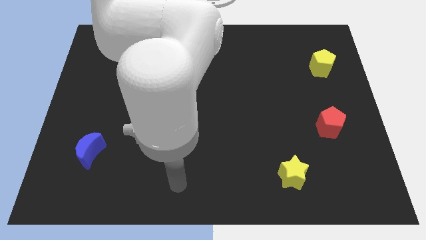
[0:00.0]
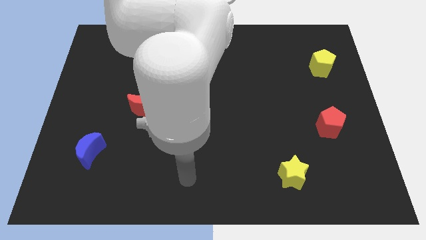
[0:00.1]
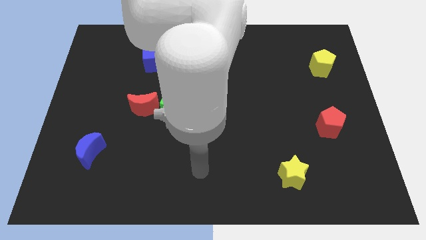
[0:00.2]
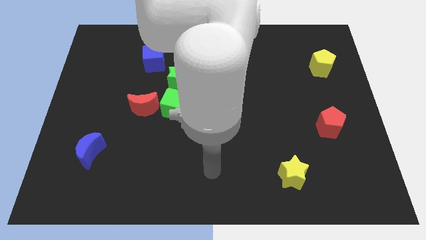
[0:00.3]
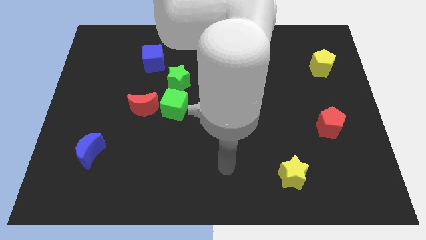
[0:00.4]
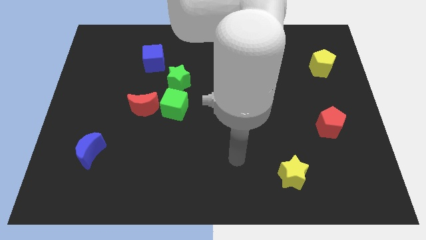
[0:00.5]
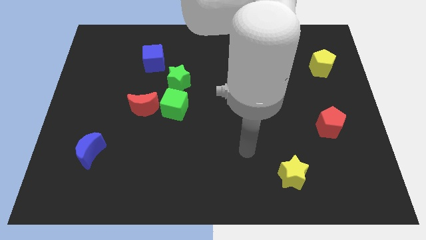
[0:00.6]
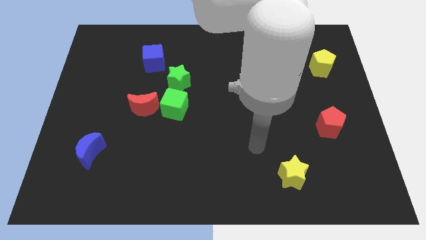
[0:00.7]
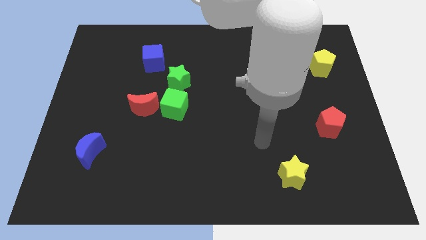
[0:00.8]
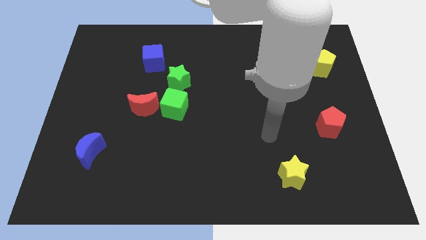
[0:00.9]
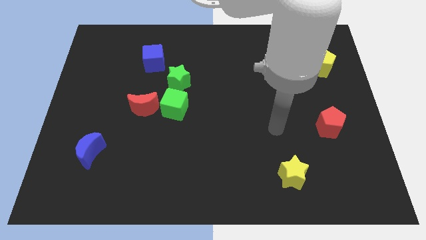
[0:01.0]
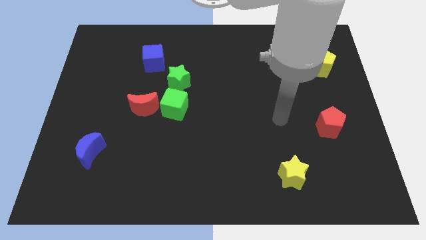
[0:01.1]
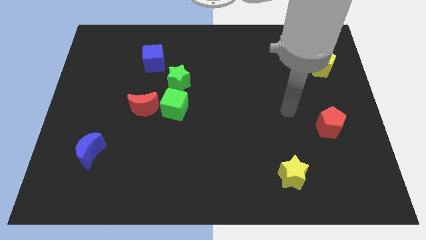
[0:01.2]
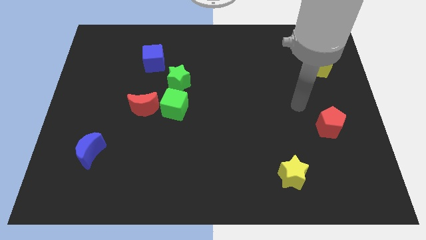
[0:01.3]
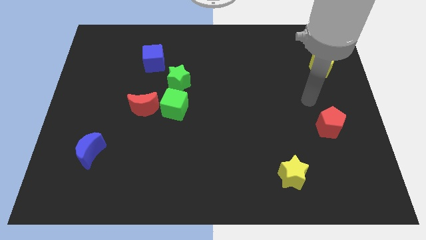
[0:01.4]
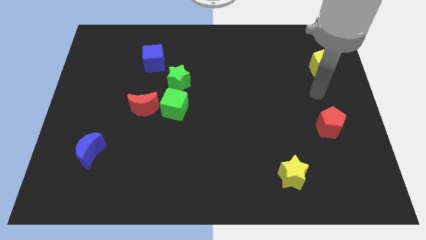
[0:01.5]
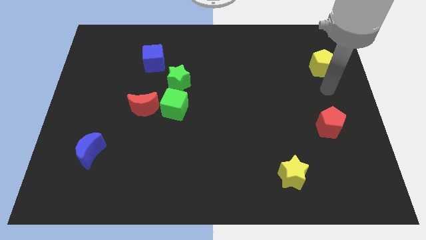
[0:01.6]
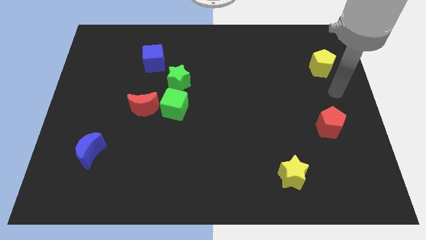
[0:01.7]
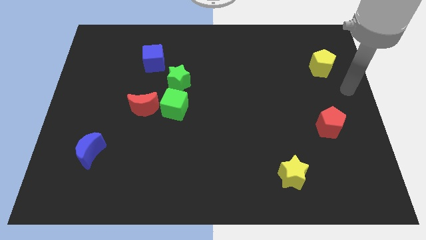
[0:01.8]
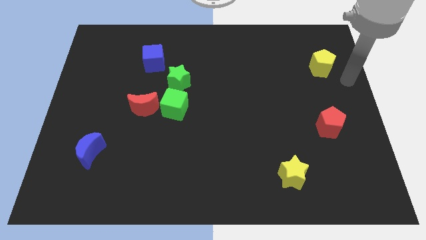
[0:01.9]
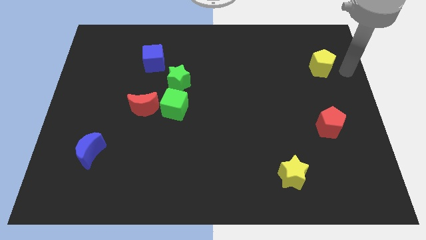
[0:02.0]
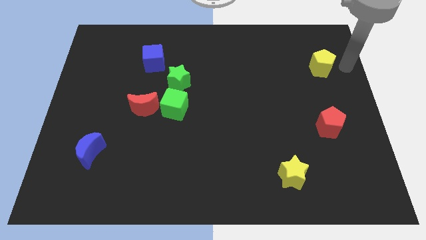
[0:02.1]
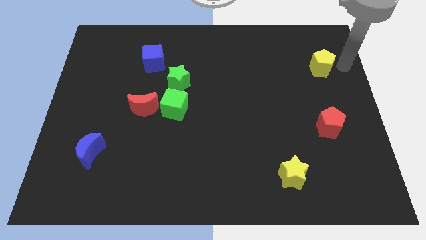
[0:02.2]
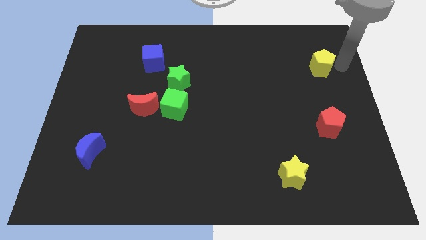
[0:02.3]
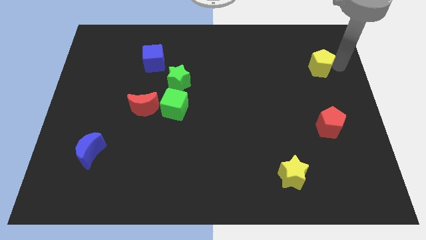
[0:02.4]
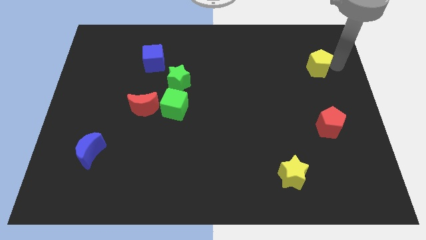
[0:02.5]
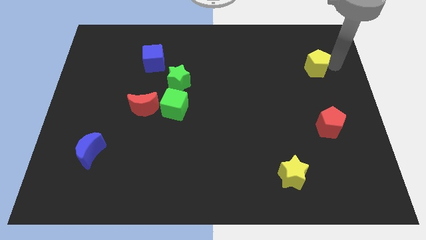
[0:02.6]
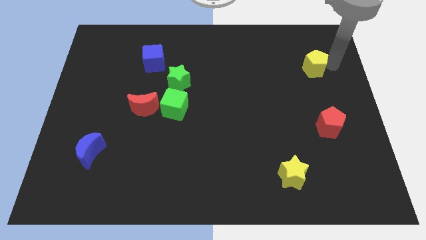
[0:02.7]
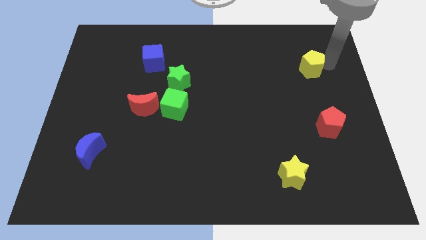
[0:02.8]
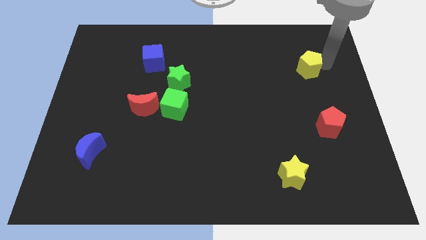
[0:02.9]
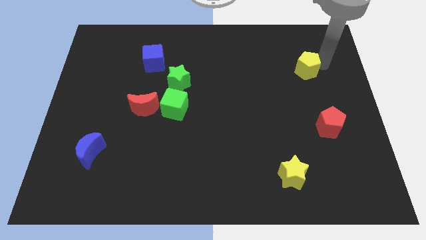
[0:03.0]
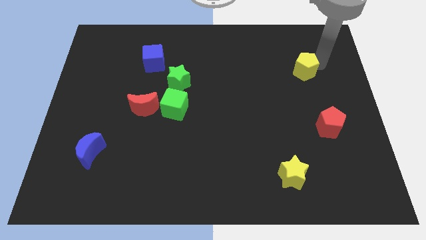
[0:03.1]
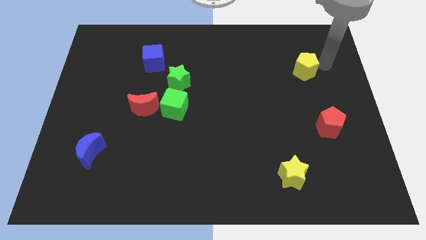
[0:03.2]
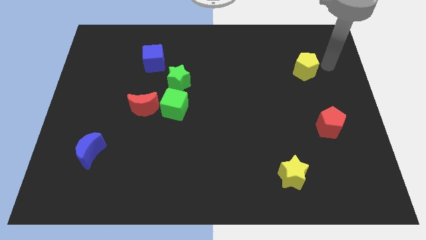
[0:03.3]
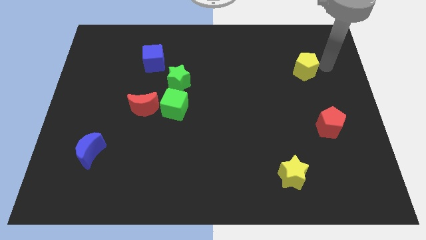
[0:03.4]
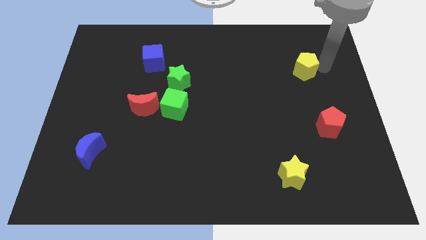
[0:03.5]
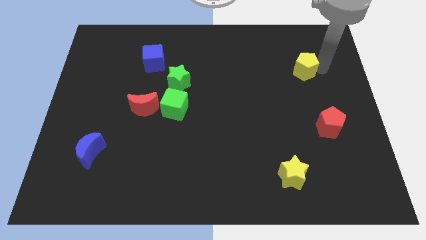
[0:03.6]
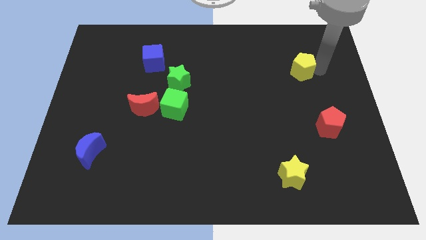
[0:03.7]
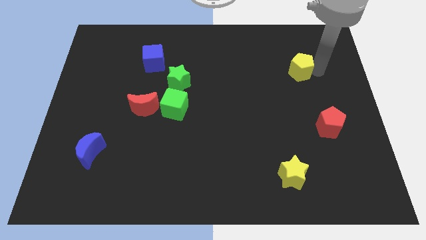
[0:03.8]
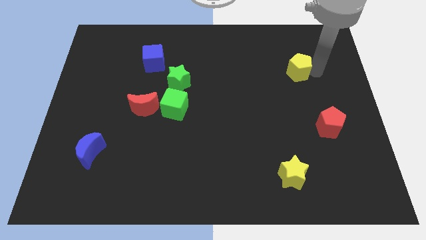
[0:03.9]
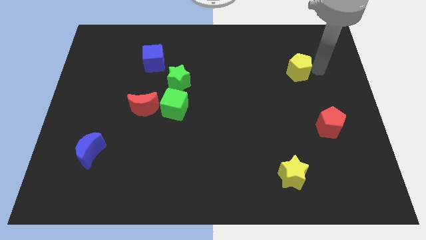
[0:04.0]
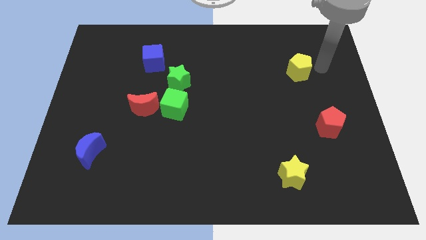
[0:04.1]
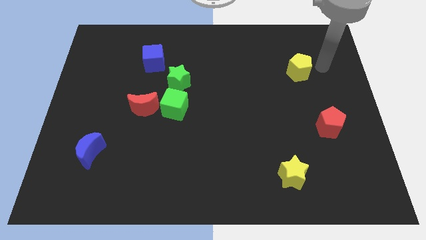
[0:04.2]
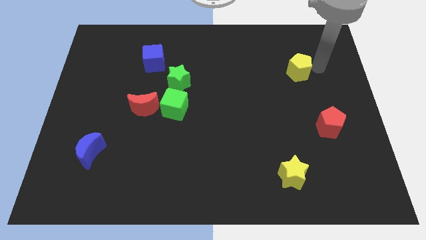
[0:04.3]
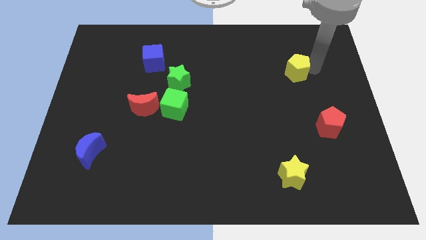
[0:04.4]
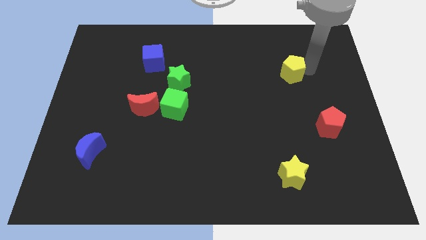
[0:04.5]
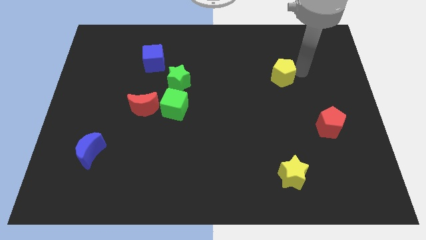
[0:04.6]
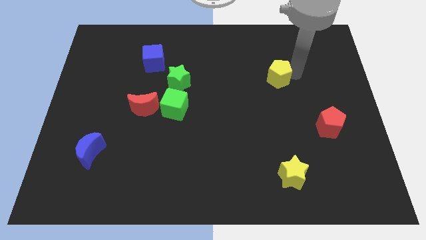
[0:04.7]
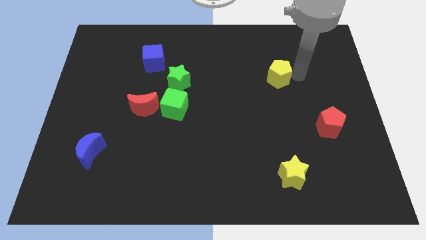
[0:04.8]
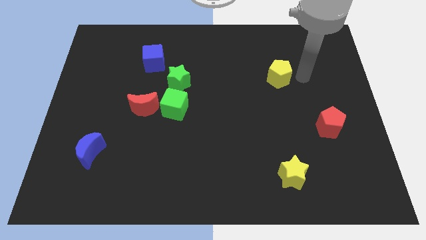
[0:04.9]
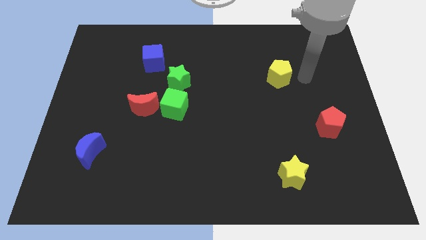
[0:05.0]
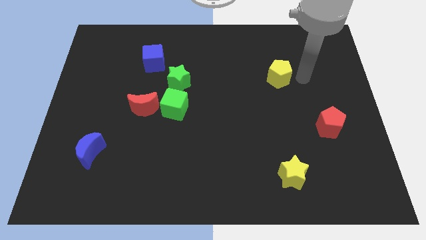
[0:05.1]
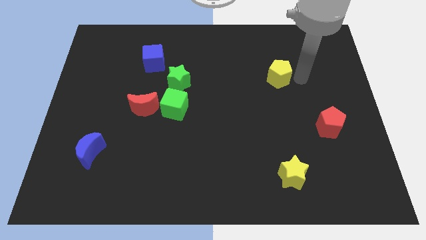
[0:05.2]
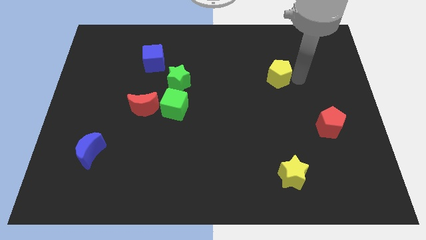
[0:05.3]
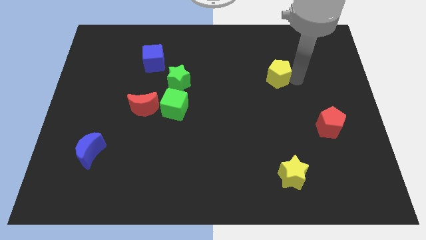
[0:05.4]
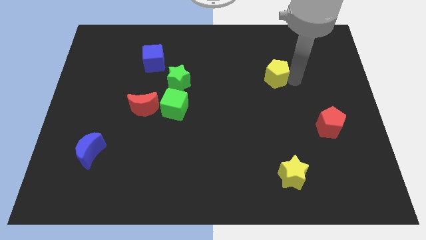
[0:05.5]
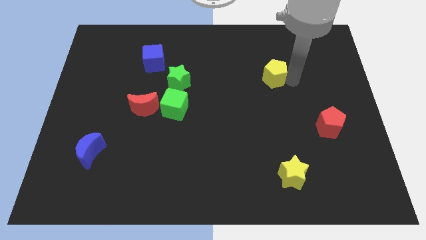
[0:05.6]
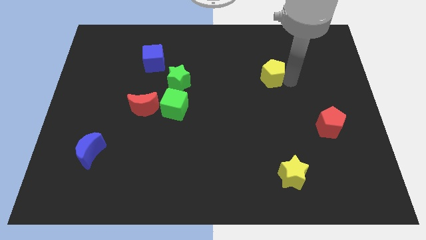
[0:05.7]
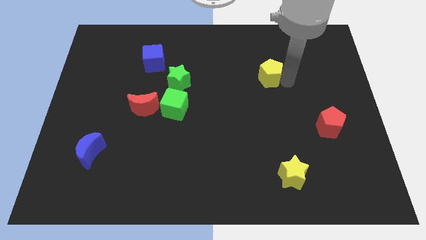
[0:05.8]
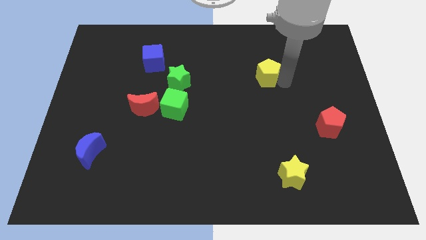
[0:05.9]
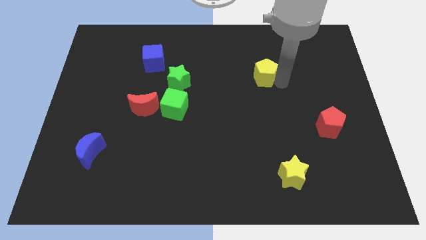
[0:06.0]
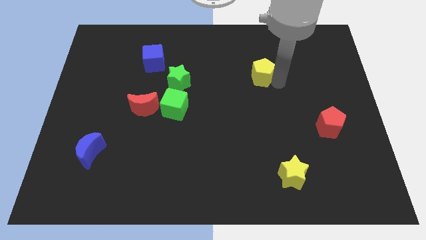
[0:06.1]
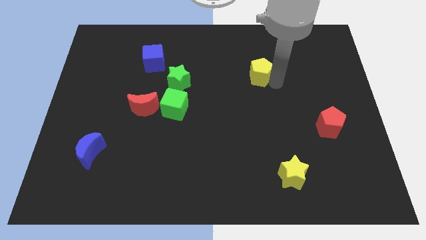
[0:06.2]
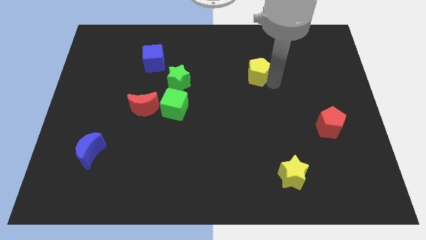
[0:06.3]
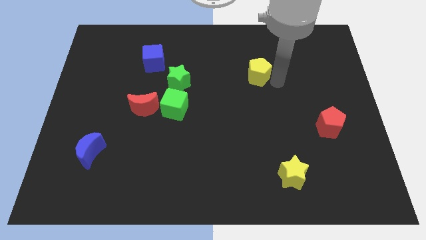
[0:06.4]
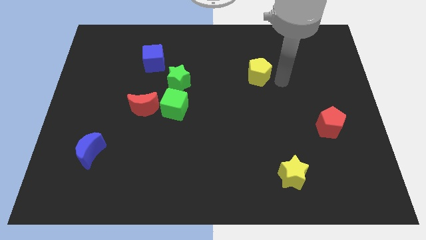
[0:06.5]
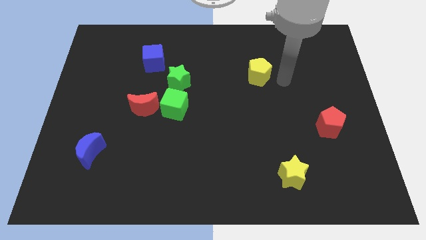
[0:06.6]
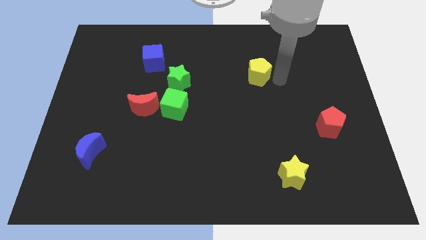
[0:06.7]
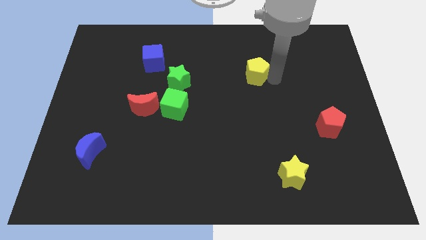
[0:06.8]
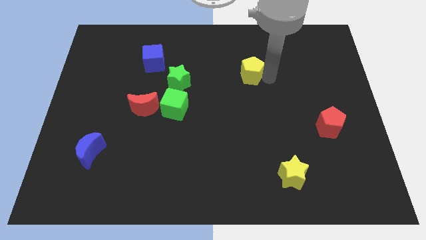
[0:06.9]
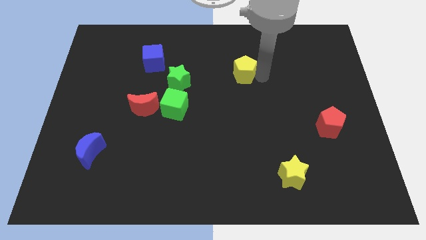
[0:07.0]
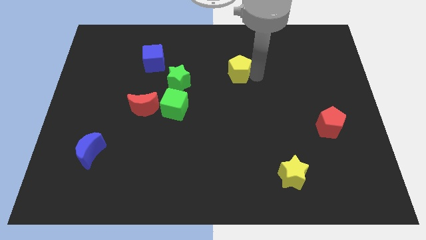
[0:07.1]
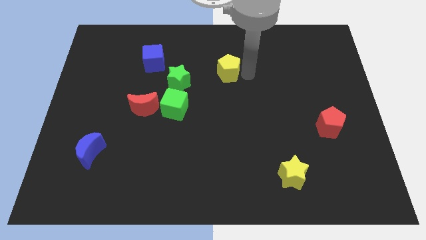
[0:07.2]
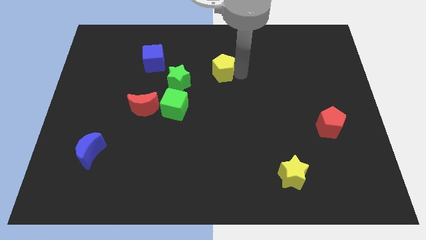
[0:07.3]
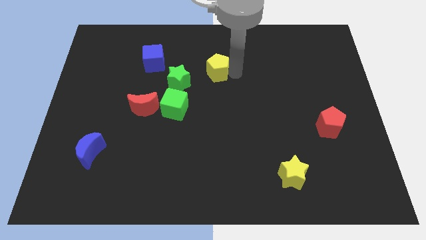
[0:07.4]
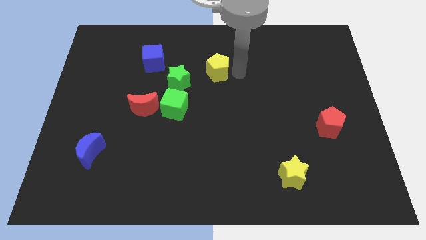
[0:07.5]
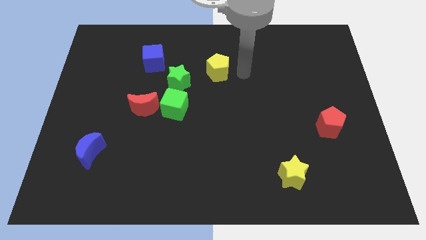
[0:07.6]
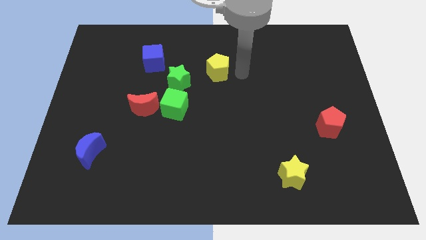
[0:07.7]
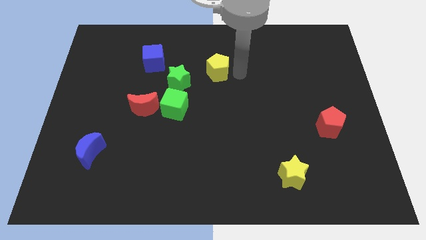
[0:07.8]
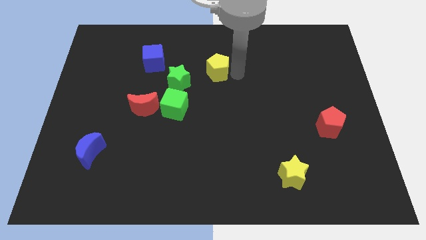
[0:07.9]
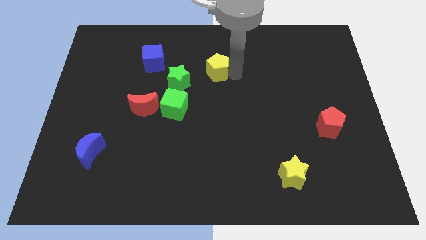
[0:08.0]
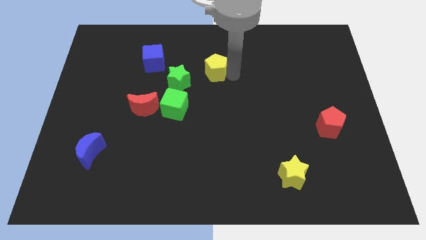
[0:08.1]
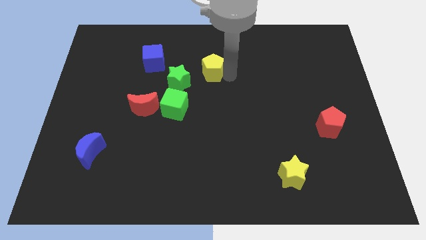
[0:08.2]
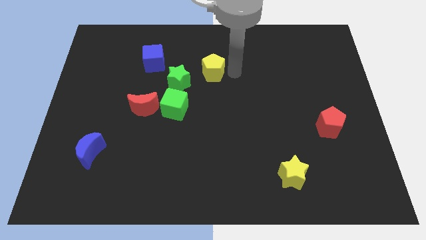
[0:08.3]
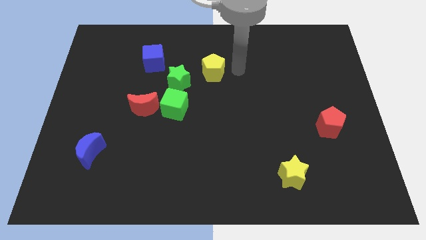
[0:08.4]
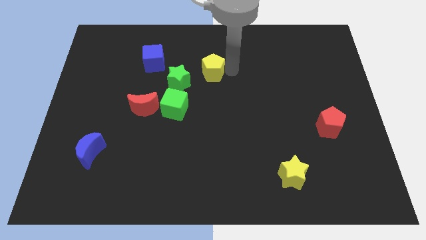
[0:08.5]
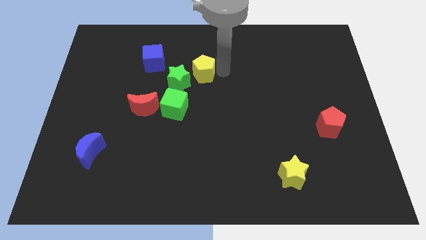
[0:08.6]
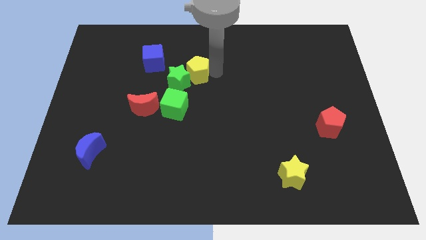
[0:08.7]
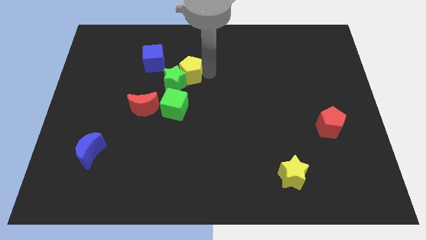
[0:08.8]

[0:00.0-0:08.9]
put the yellow pentagon to the top side of the green cube
